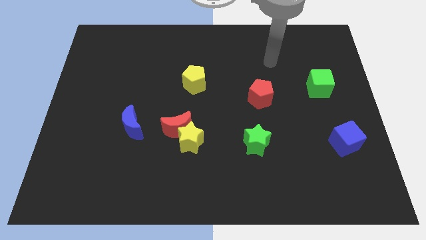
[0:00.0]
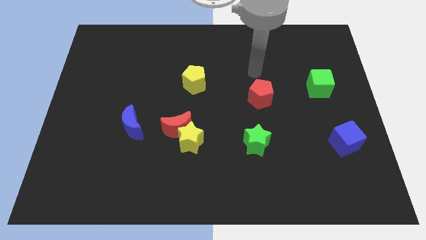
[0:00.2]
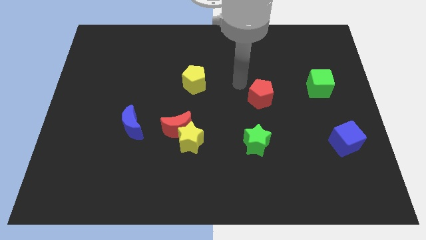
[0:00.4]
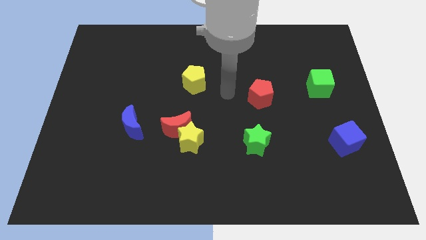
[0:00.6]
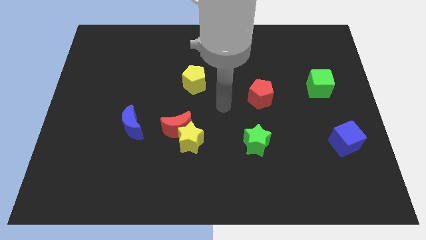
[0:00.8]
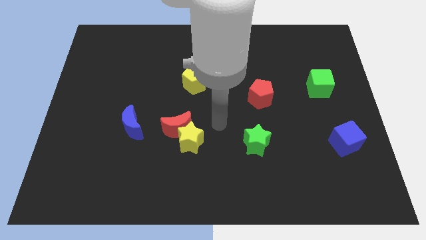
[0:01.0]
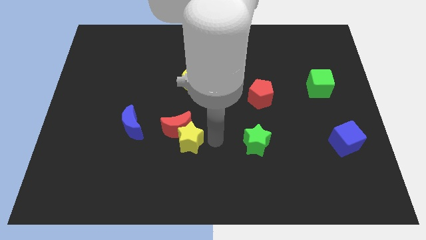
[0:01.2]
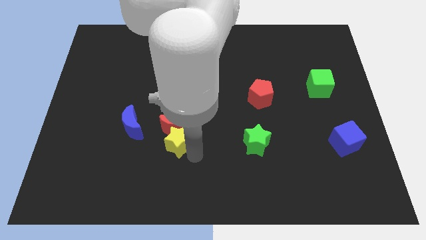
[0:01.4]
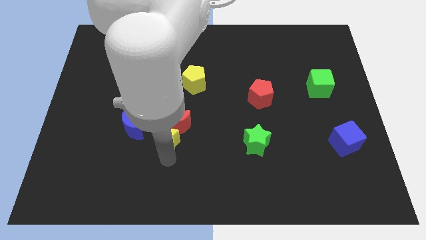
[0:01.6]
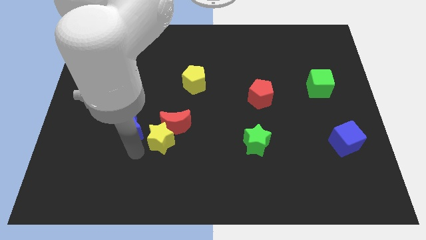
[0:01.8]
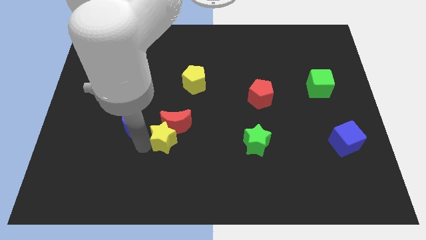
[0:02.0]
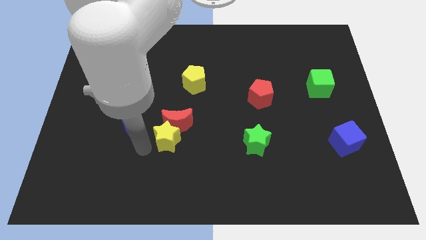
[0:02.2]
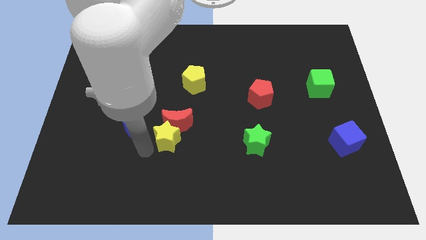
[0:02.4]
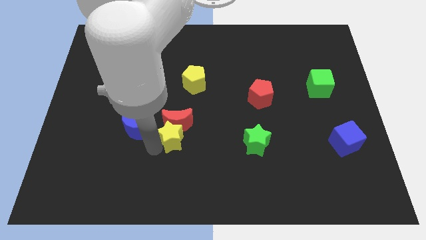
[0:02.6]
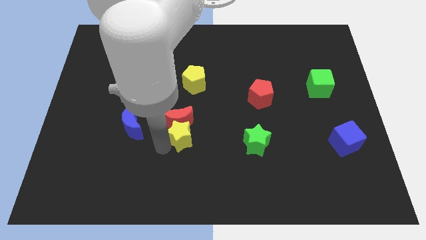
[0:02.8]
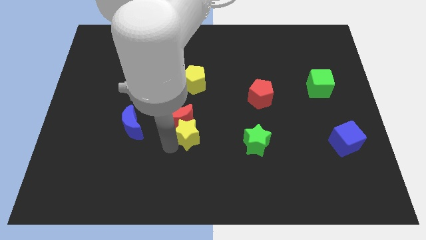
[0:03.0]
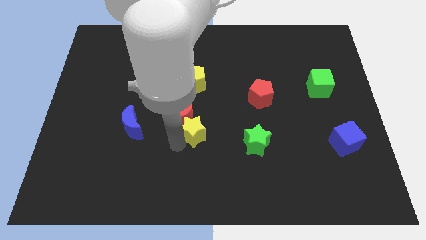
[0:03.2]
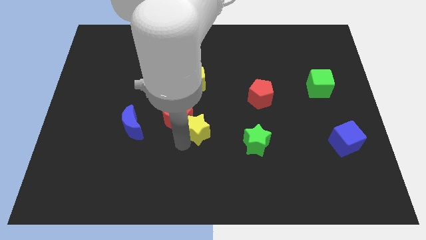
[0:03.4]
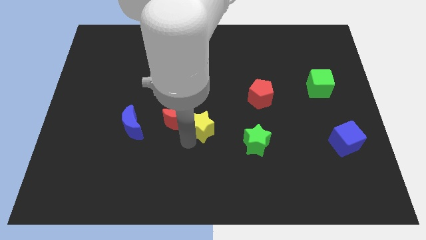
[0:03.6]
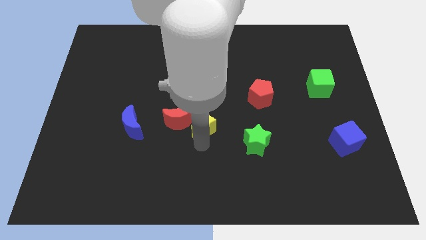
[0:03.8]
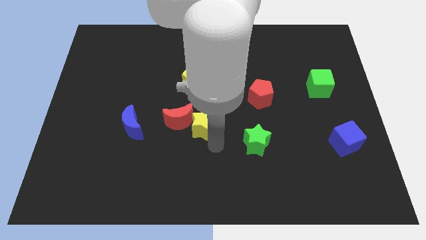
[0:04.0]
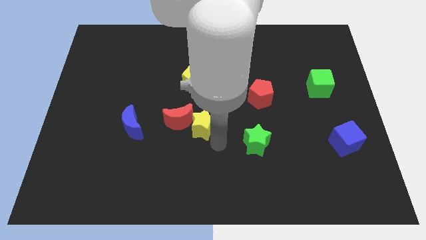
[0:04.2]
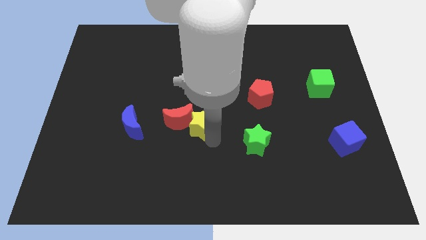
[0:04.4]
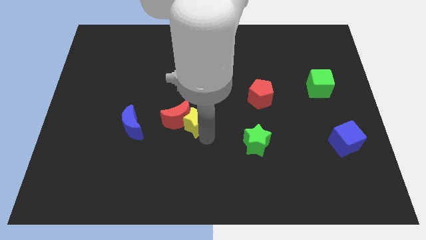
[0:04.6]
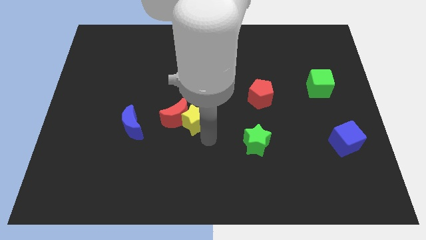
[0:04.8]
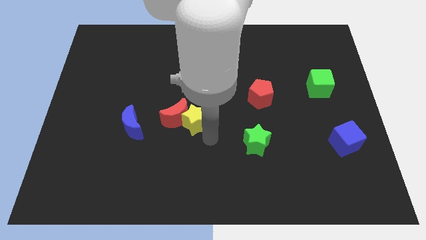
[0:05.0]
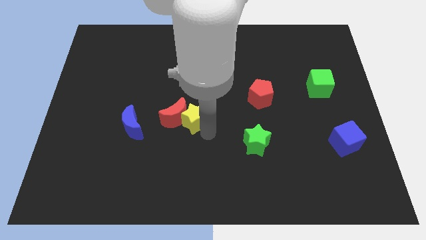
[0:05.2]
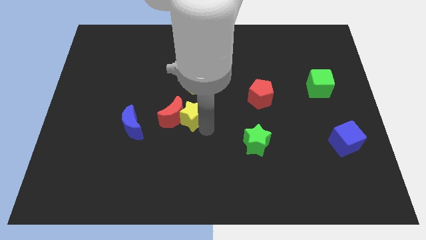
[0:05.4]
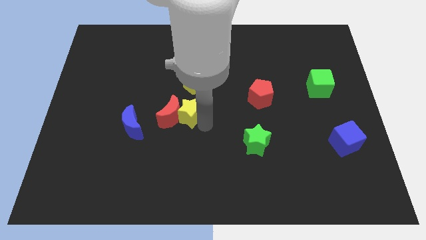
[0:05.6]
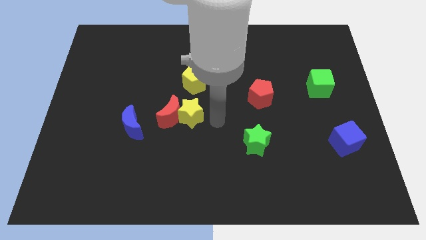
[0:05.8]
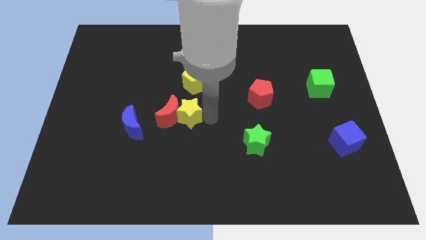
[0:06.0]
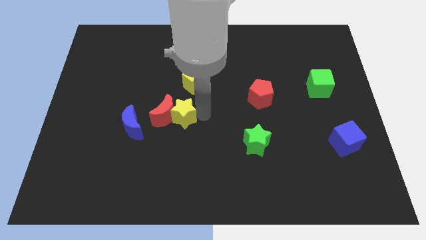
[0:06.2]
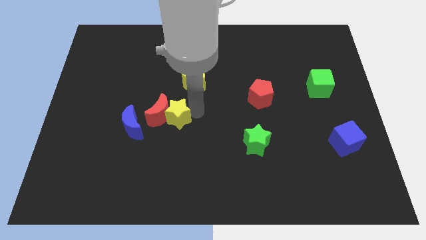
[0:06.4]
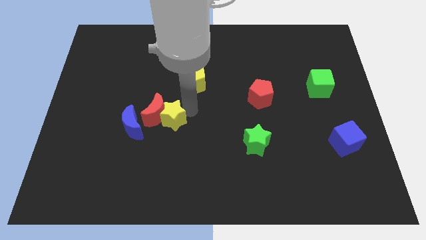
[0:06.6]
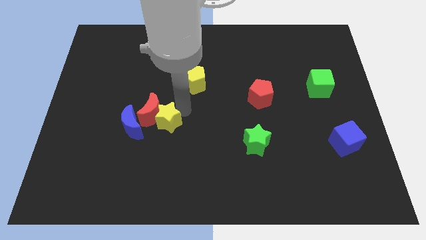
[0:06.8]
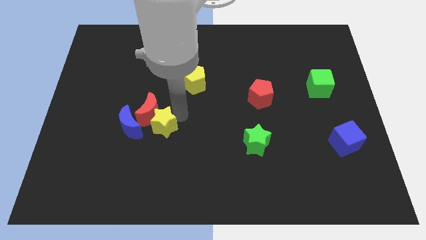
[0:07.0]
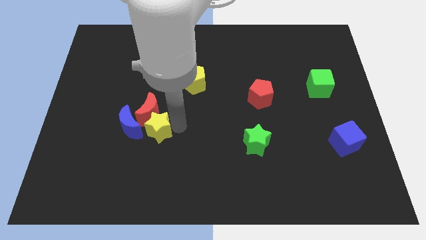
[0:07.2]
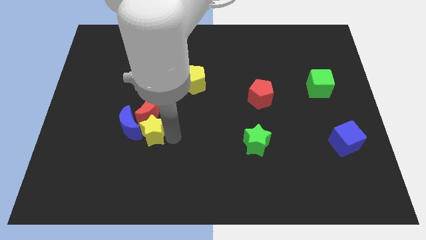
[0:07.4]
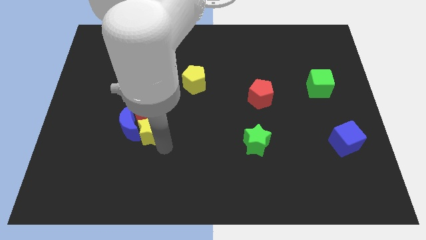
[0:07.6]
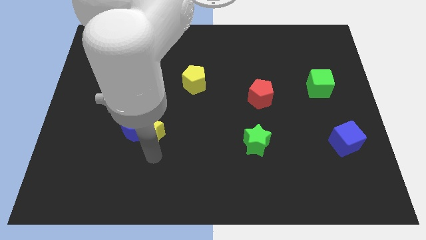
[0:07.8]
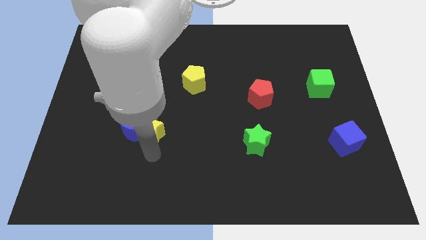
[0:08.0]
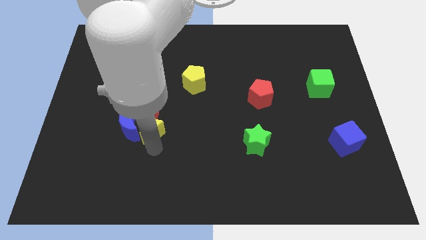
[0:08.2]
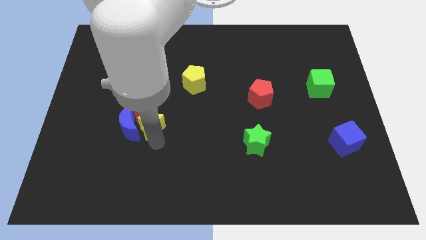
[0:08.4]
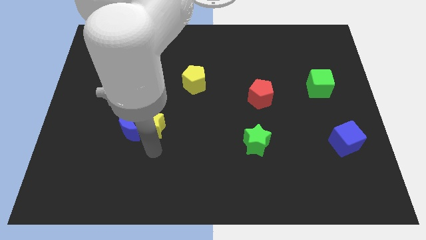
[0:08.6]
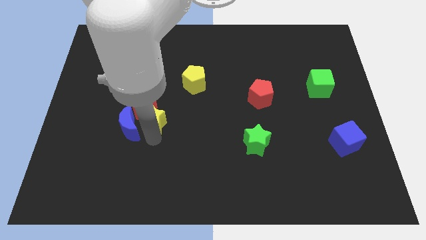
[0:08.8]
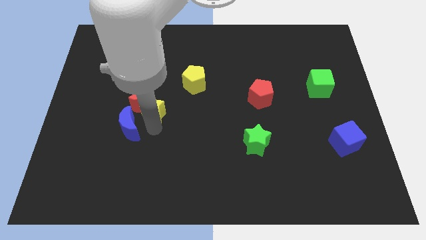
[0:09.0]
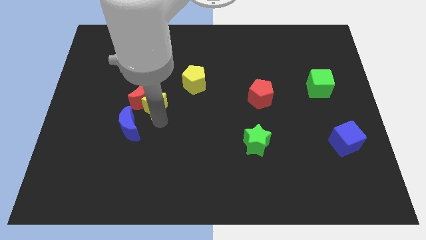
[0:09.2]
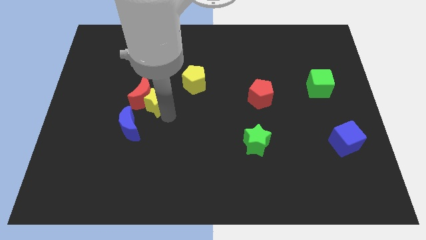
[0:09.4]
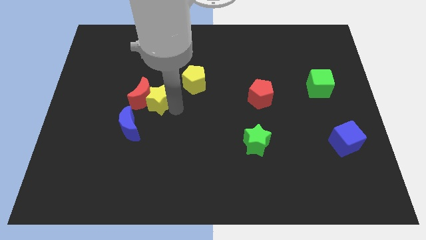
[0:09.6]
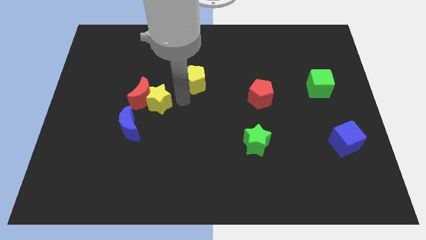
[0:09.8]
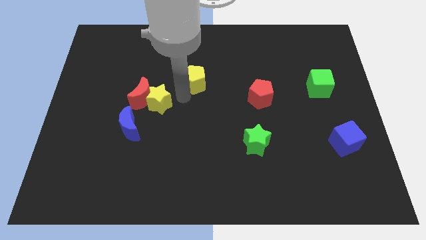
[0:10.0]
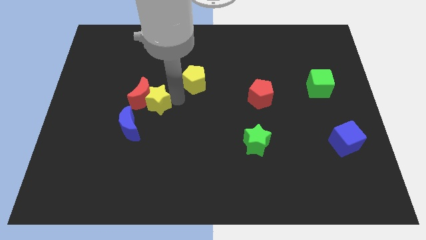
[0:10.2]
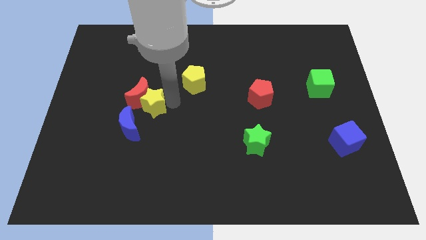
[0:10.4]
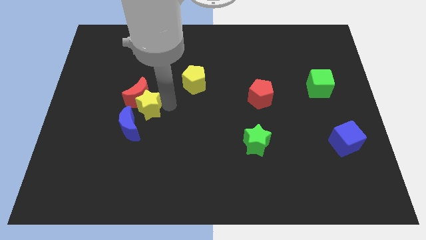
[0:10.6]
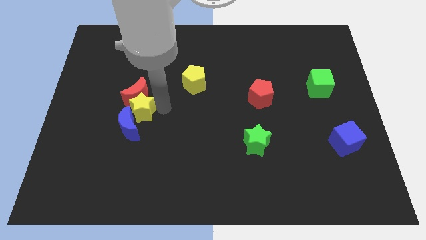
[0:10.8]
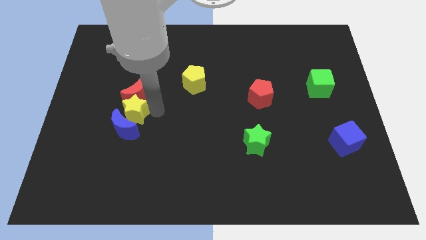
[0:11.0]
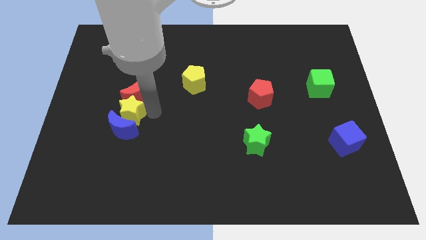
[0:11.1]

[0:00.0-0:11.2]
slide the yellow star to the top left of the blue moon
